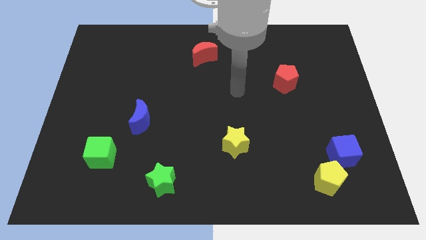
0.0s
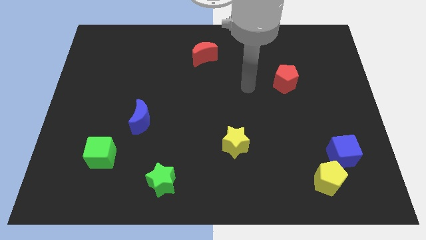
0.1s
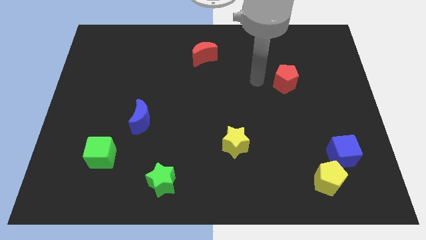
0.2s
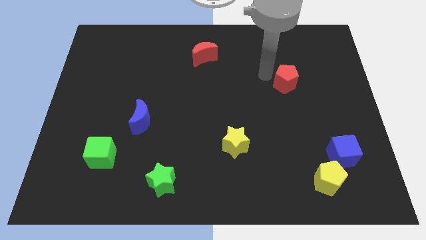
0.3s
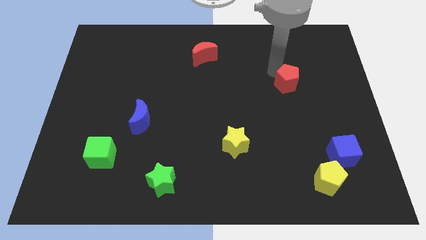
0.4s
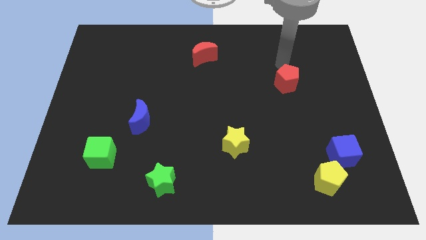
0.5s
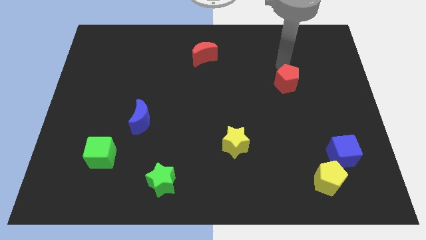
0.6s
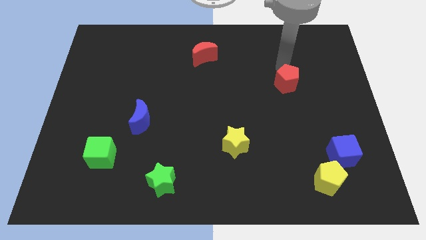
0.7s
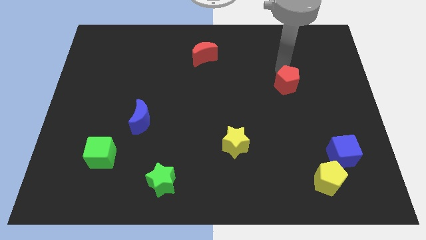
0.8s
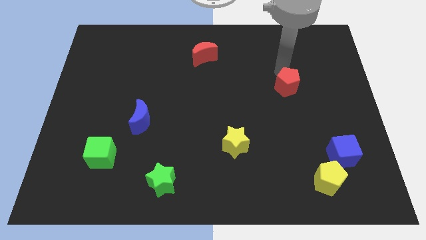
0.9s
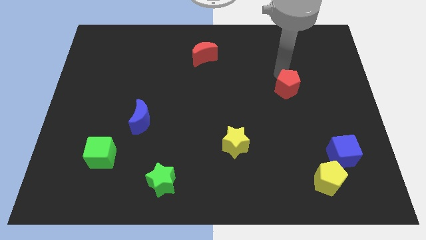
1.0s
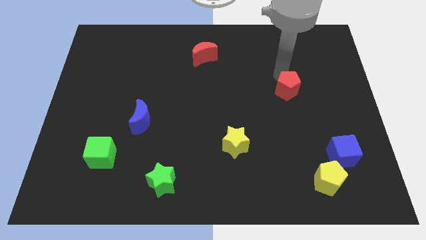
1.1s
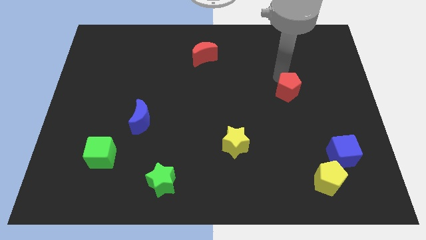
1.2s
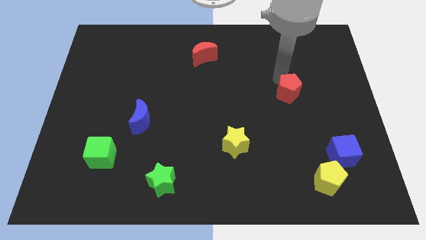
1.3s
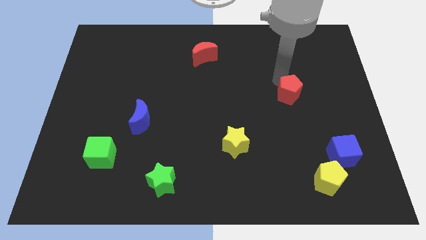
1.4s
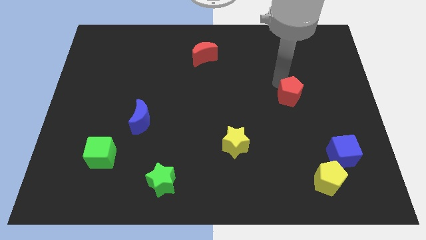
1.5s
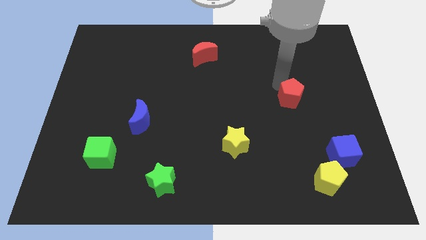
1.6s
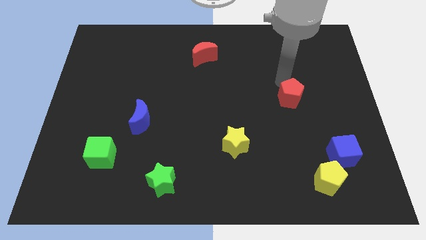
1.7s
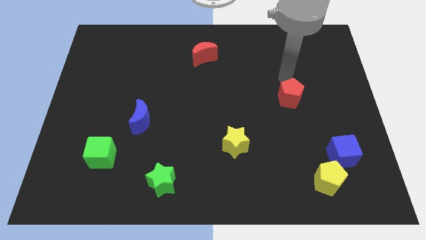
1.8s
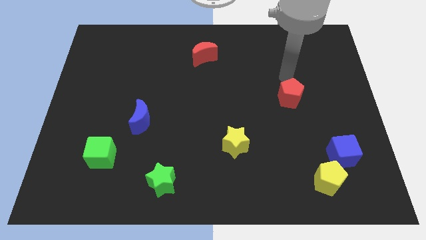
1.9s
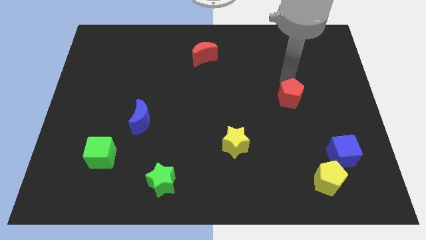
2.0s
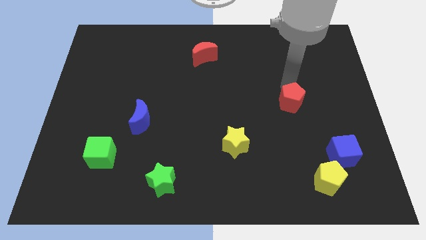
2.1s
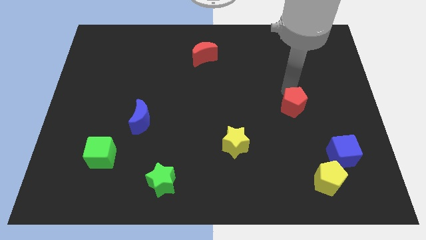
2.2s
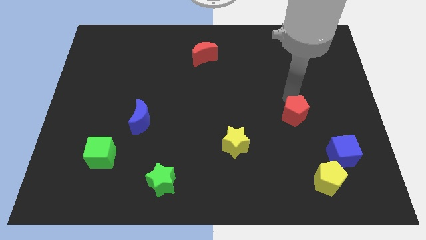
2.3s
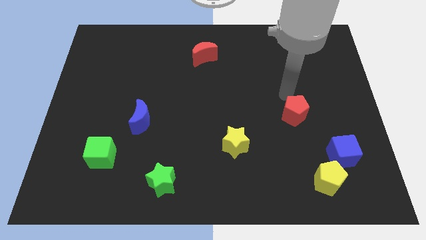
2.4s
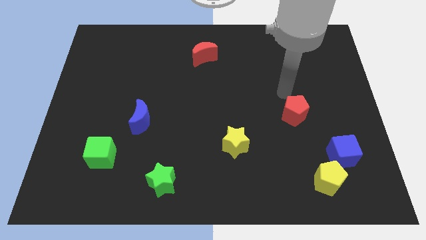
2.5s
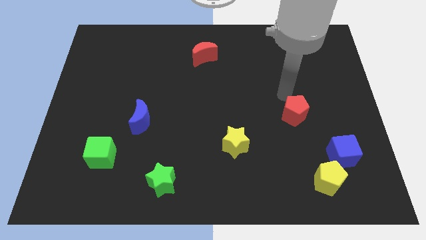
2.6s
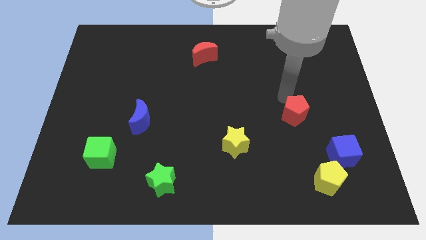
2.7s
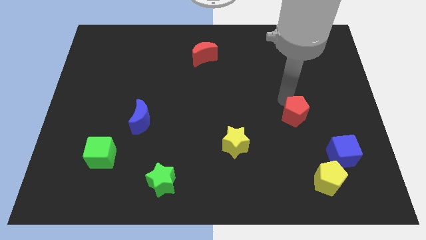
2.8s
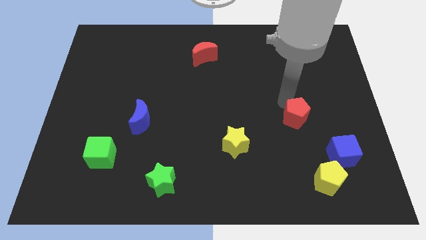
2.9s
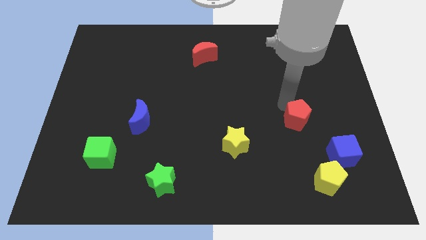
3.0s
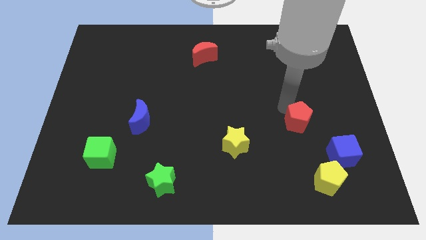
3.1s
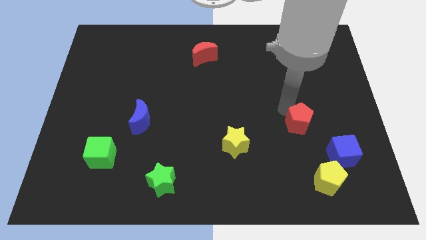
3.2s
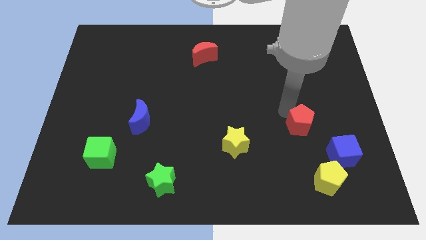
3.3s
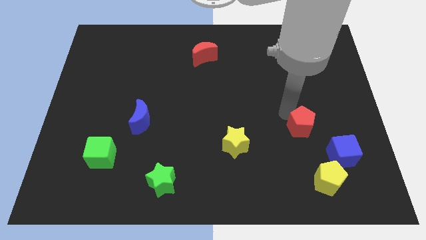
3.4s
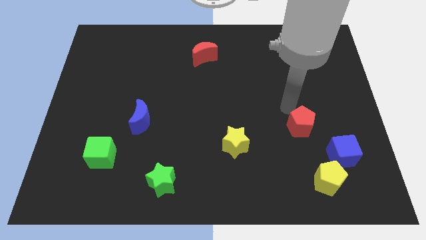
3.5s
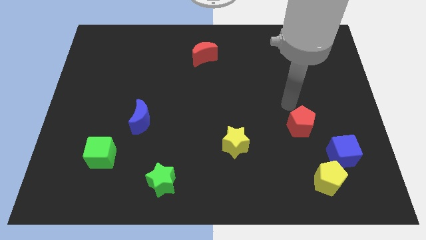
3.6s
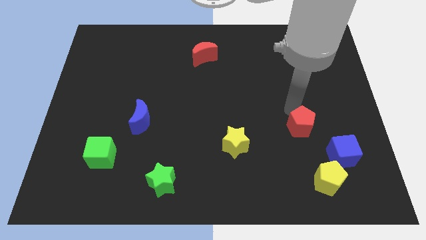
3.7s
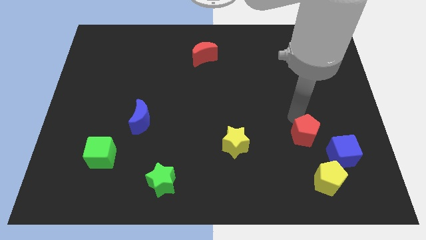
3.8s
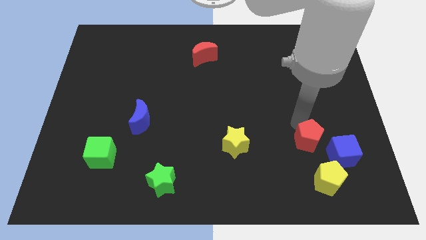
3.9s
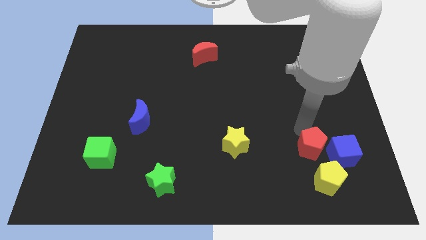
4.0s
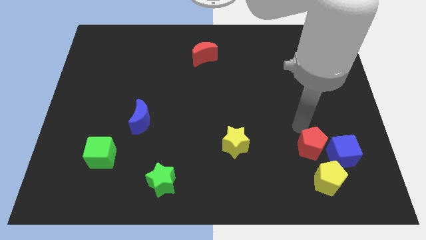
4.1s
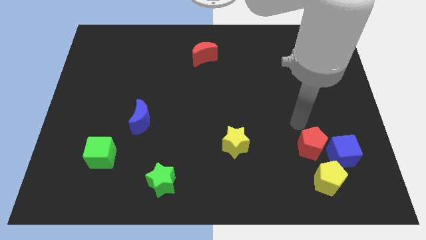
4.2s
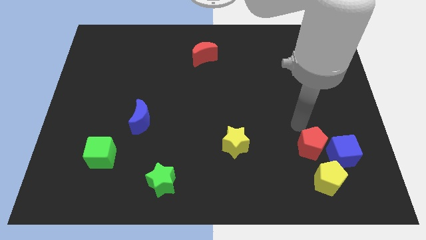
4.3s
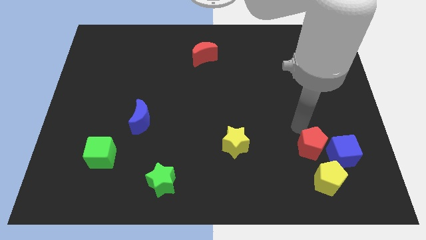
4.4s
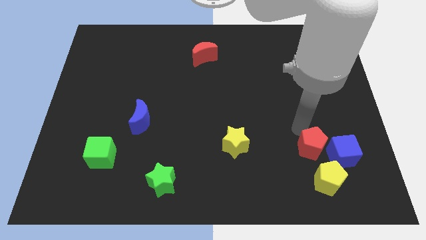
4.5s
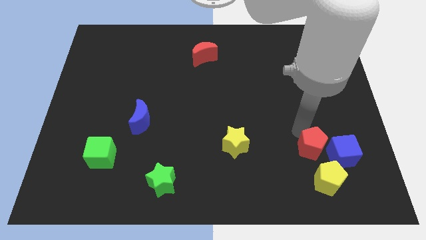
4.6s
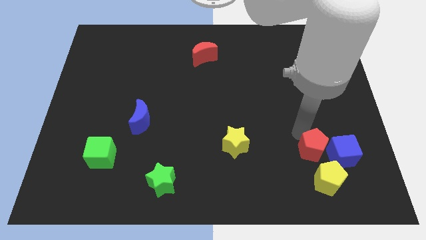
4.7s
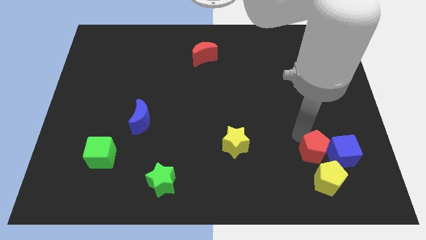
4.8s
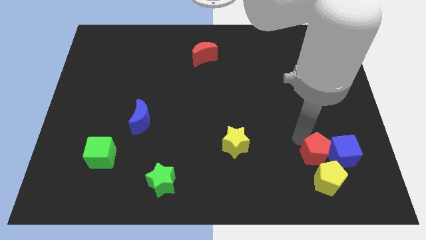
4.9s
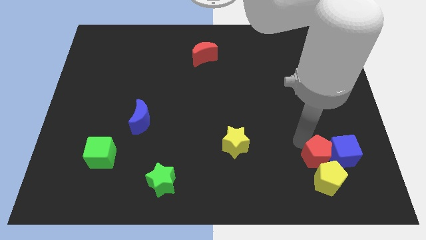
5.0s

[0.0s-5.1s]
put the red pentagon towards the yellow pentagon

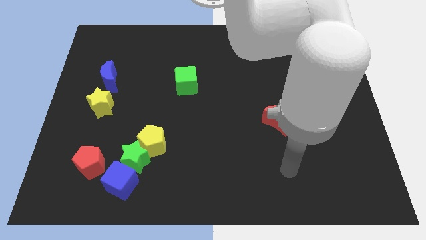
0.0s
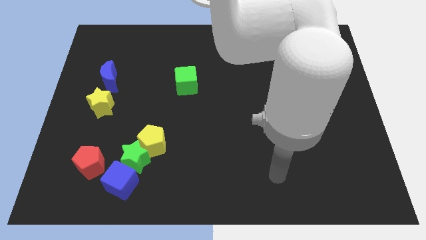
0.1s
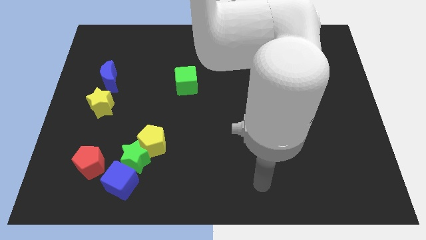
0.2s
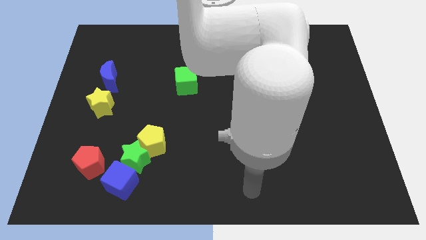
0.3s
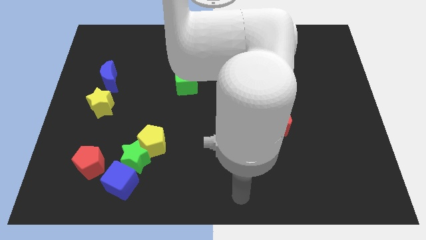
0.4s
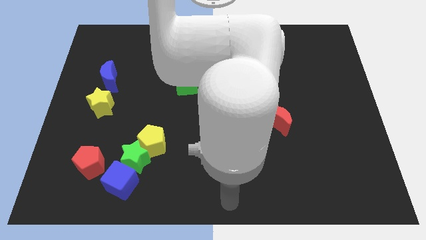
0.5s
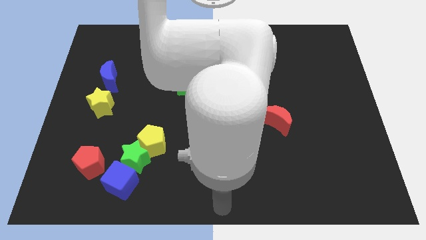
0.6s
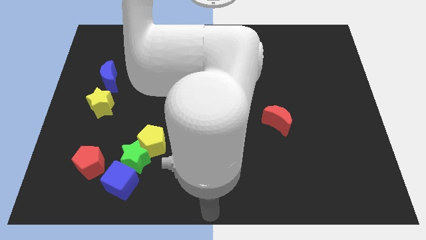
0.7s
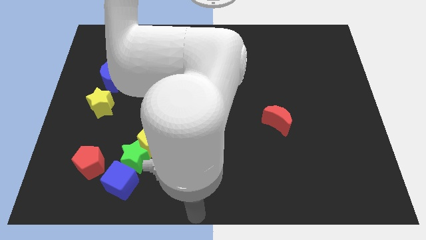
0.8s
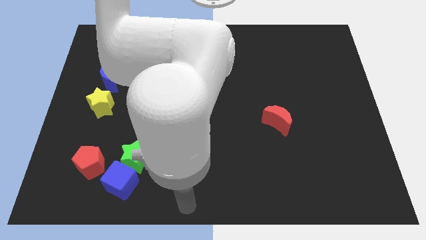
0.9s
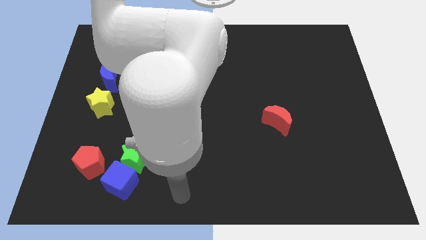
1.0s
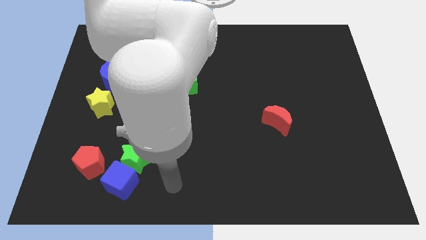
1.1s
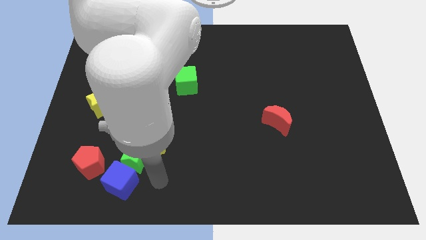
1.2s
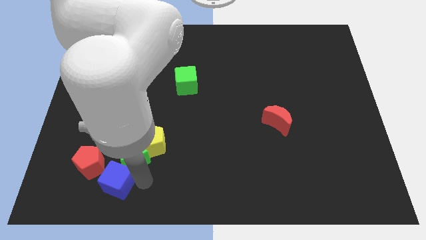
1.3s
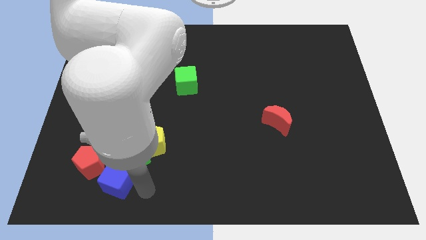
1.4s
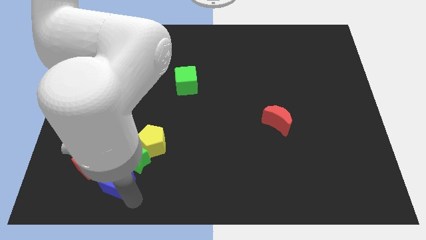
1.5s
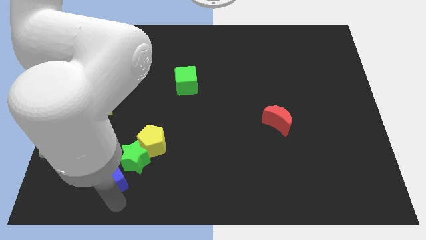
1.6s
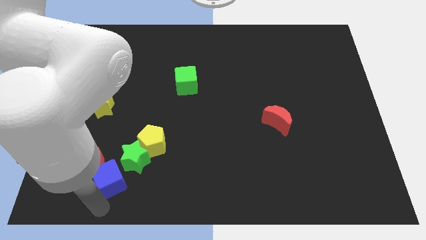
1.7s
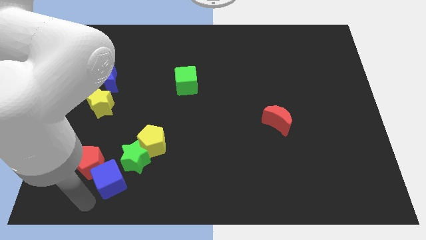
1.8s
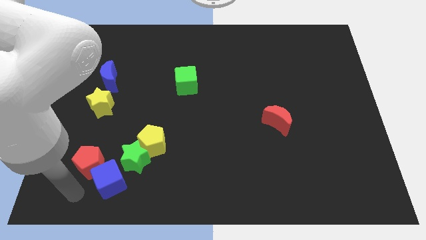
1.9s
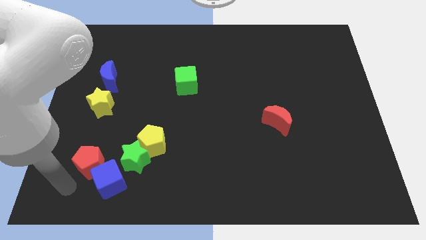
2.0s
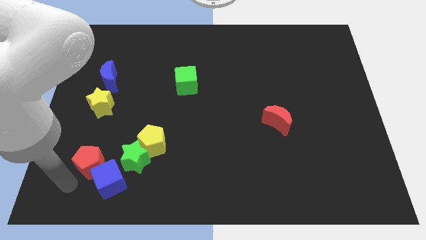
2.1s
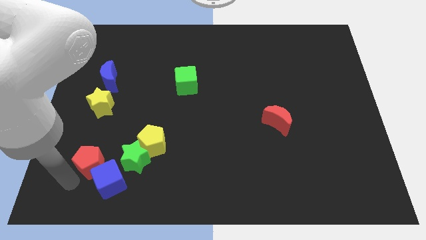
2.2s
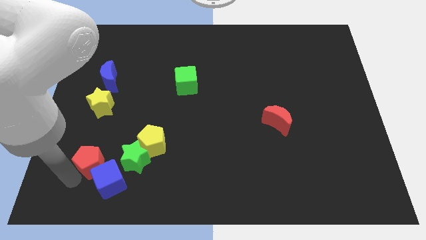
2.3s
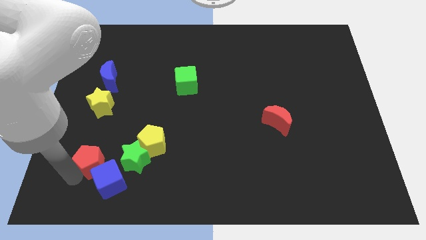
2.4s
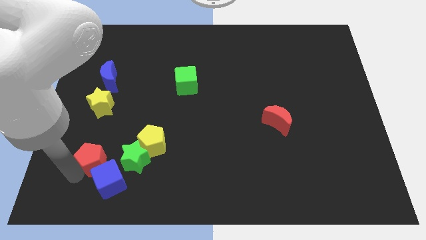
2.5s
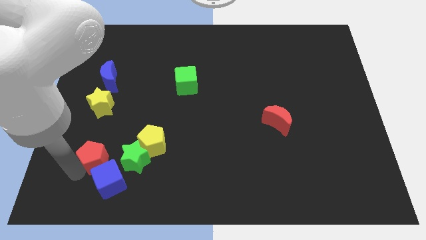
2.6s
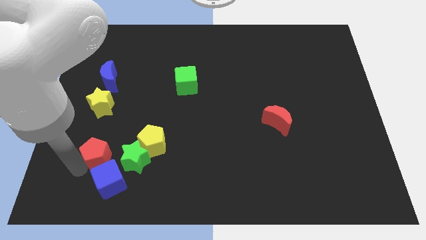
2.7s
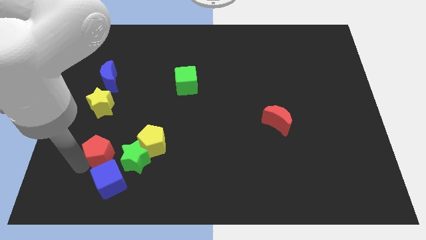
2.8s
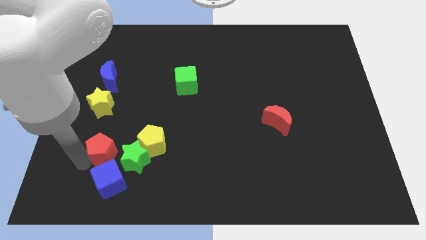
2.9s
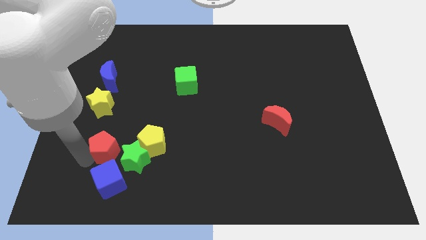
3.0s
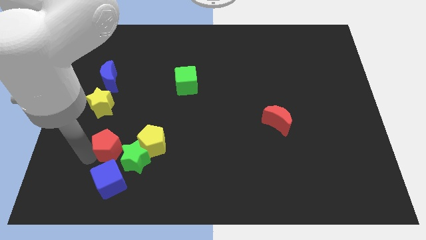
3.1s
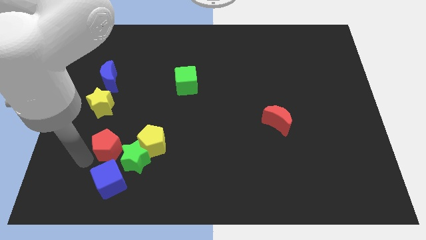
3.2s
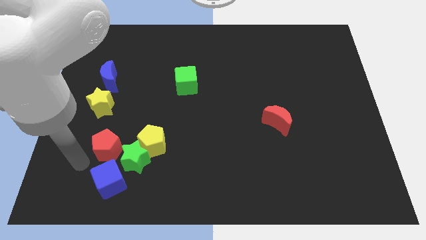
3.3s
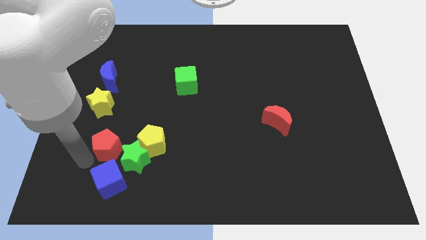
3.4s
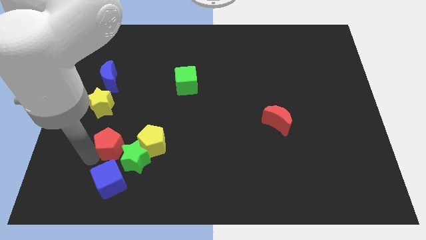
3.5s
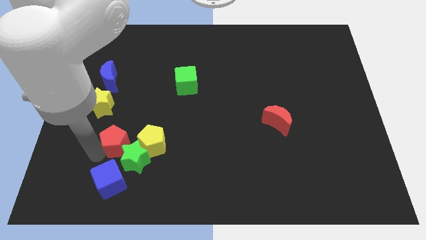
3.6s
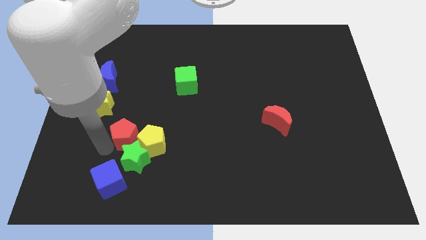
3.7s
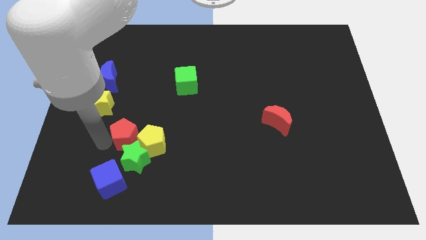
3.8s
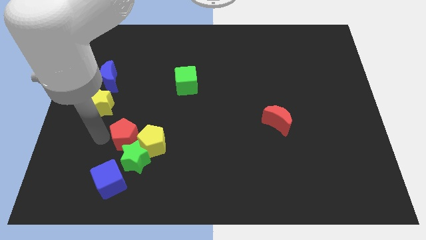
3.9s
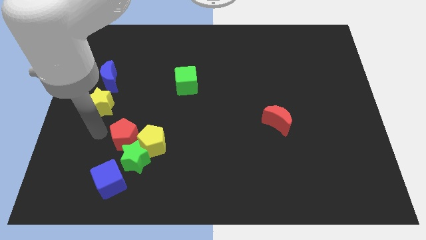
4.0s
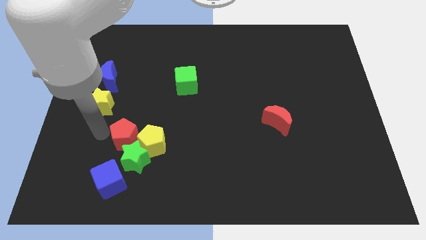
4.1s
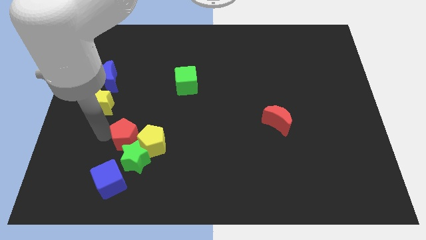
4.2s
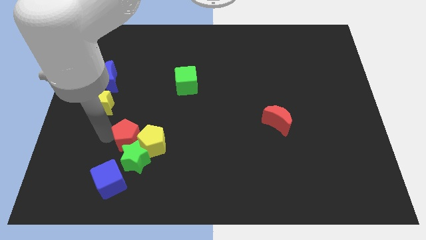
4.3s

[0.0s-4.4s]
slide the red pentagon next to the yellow pentagon
